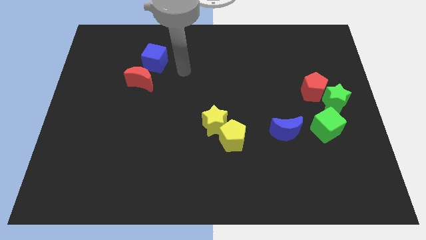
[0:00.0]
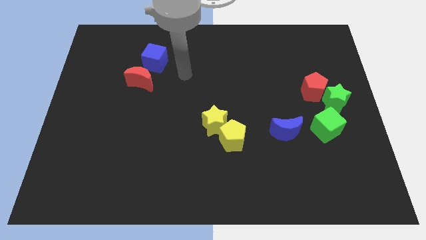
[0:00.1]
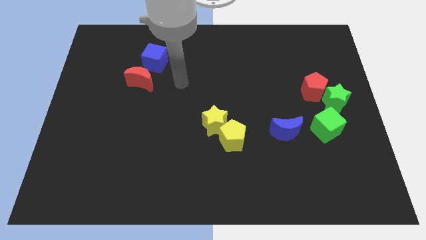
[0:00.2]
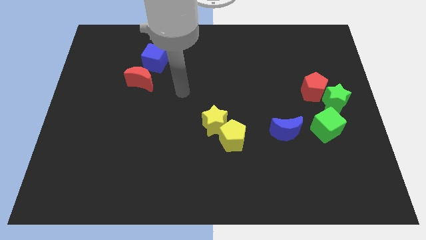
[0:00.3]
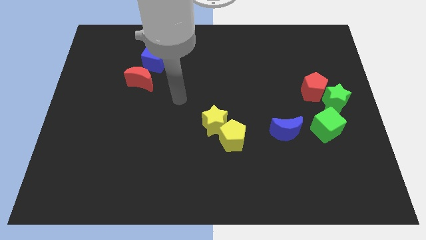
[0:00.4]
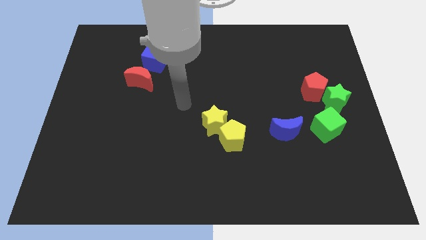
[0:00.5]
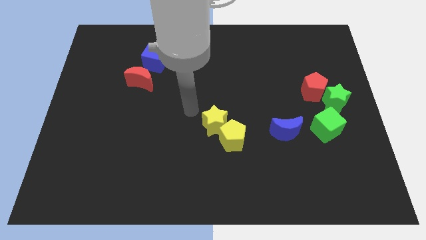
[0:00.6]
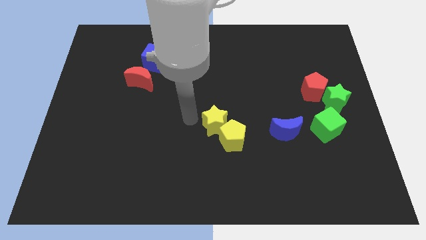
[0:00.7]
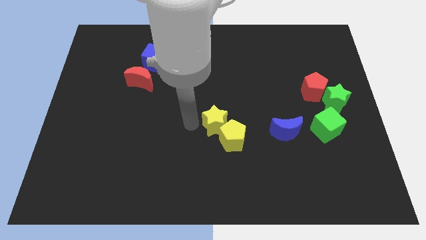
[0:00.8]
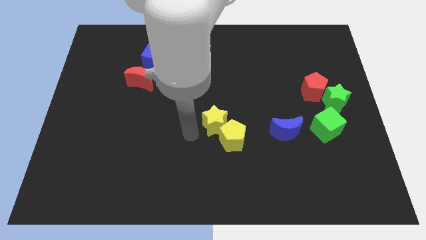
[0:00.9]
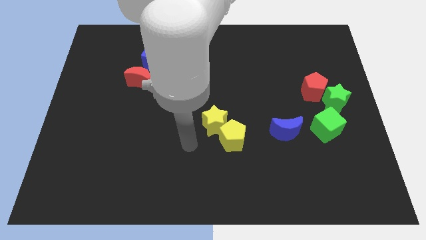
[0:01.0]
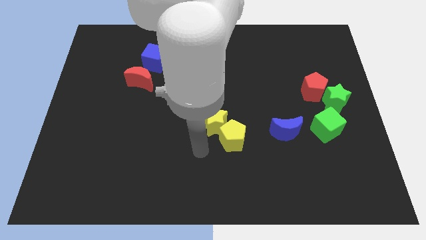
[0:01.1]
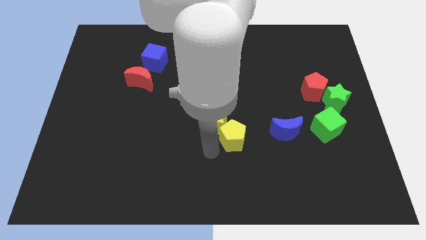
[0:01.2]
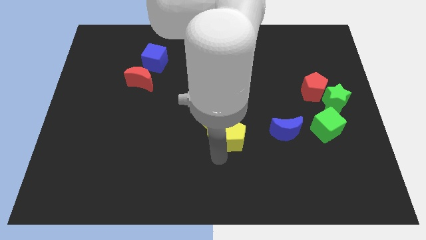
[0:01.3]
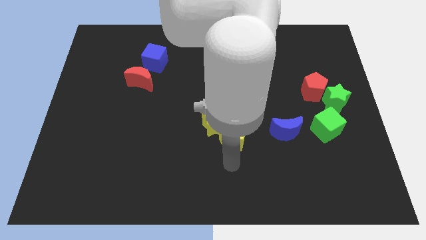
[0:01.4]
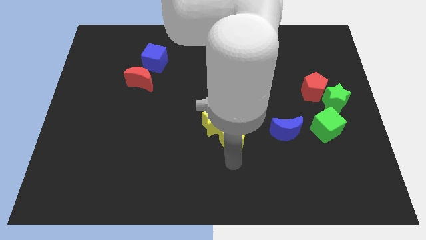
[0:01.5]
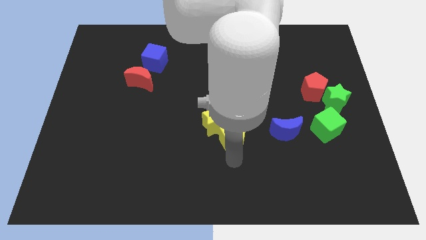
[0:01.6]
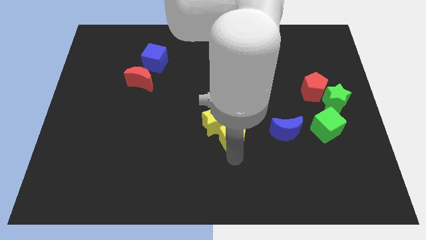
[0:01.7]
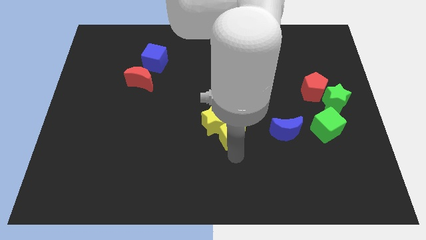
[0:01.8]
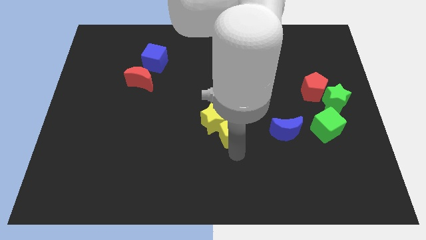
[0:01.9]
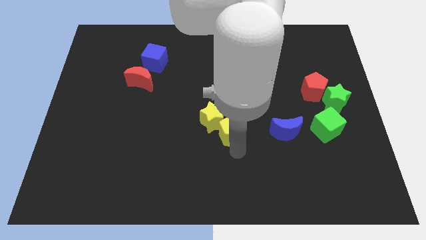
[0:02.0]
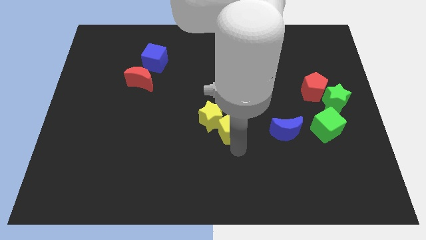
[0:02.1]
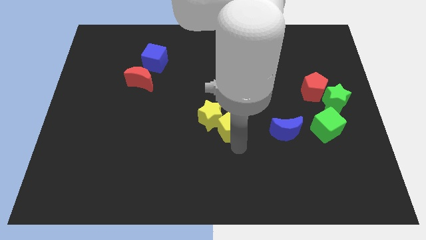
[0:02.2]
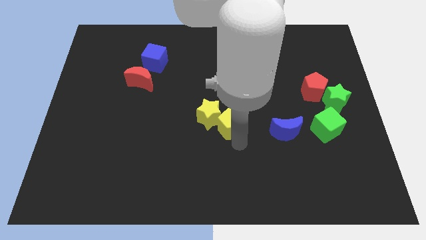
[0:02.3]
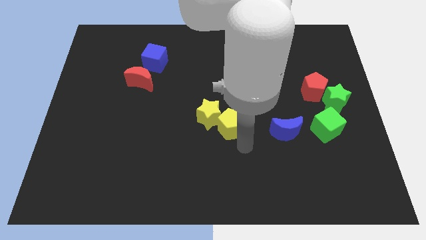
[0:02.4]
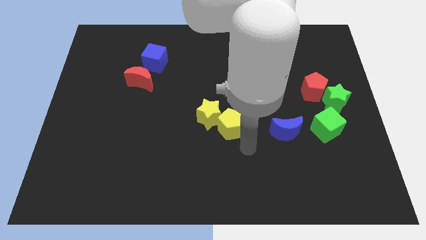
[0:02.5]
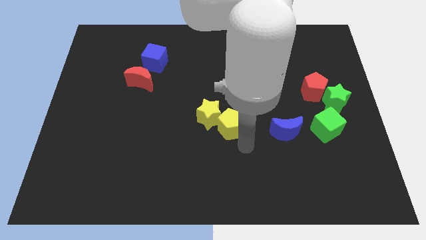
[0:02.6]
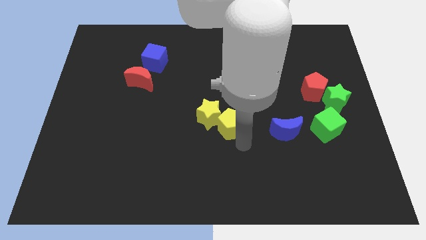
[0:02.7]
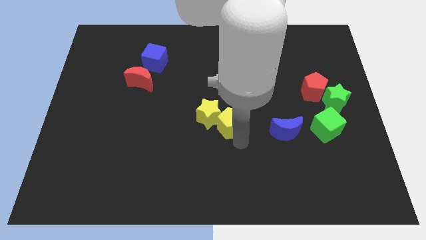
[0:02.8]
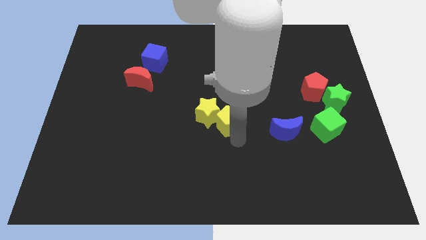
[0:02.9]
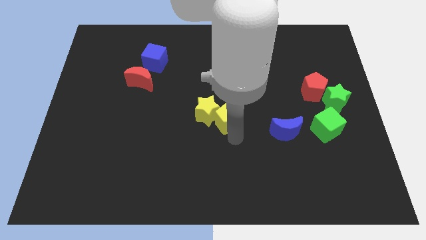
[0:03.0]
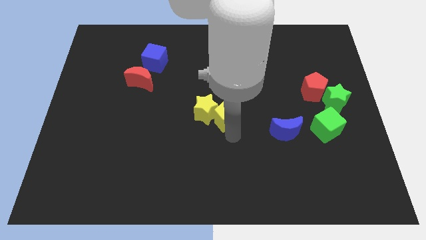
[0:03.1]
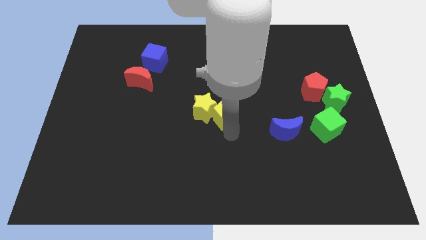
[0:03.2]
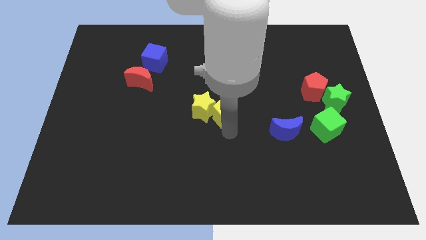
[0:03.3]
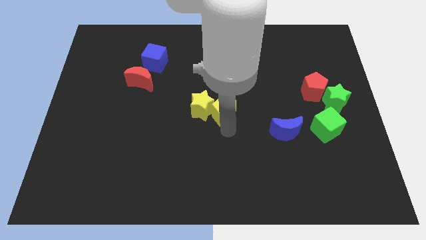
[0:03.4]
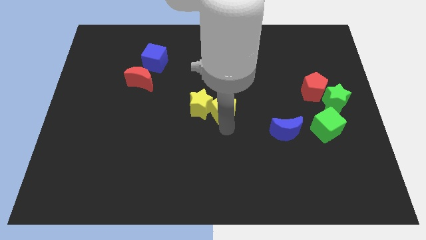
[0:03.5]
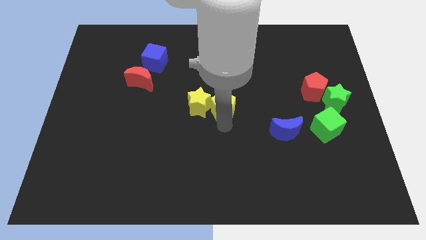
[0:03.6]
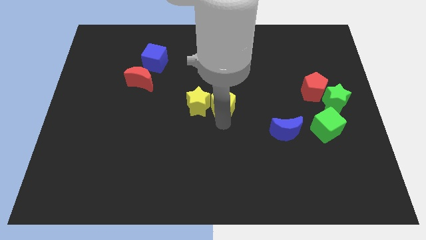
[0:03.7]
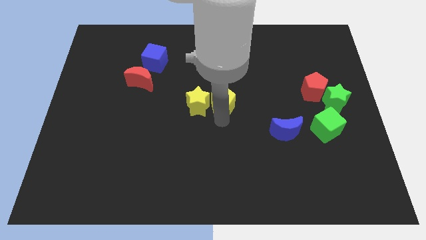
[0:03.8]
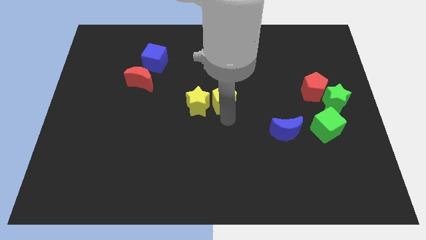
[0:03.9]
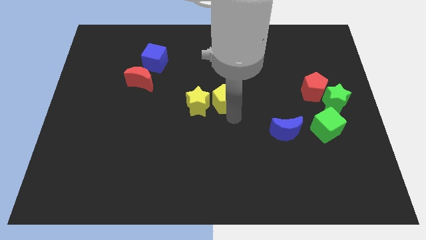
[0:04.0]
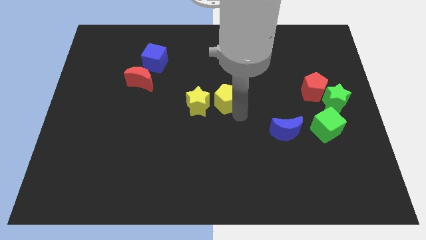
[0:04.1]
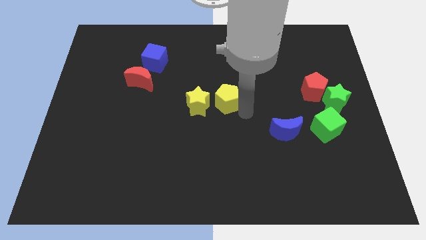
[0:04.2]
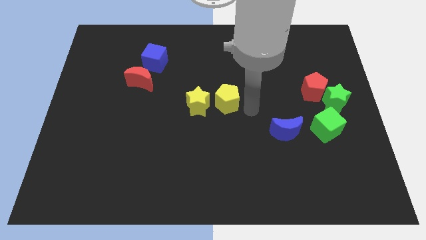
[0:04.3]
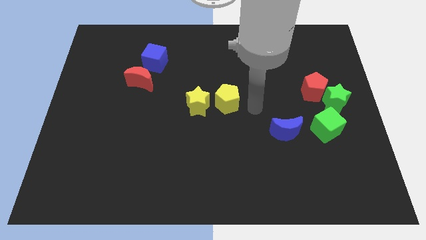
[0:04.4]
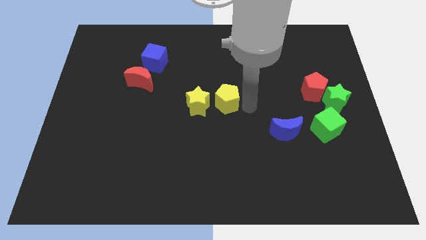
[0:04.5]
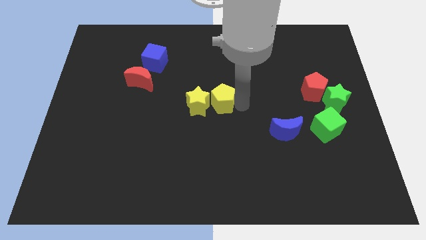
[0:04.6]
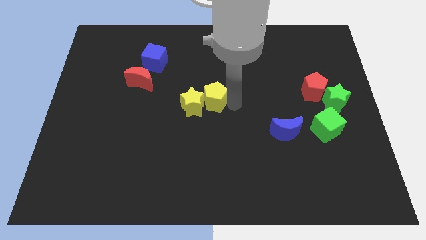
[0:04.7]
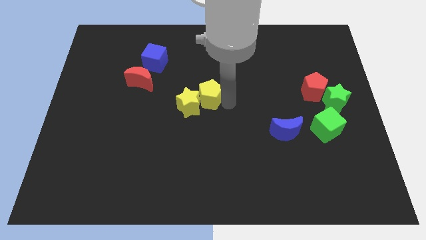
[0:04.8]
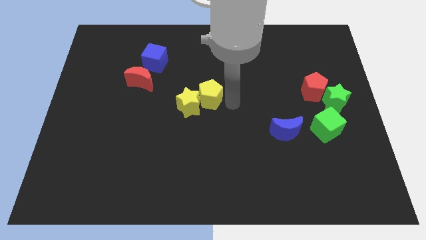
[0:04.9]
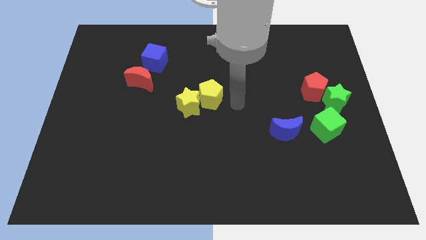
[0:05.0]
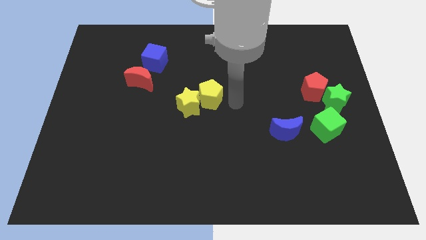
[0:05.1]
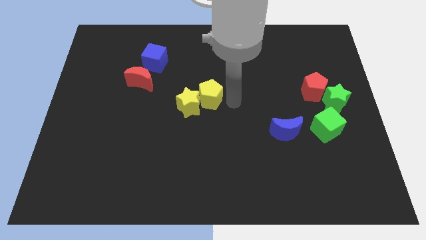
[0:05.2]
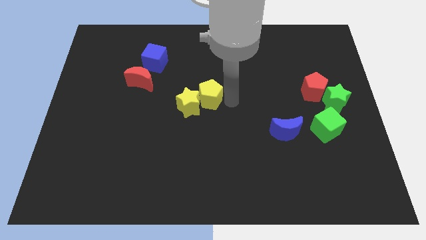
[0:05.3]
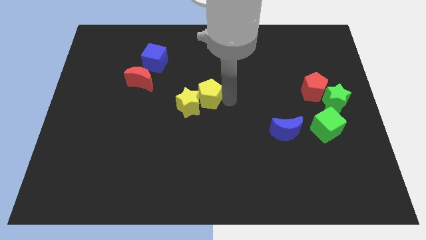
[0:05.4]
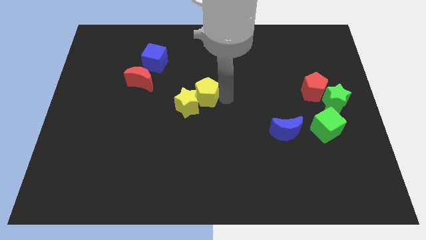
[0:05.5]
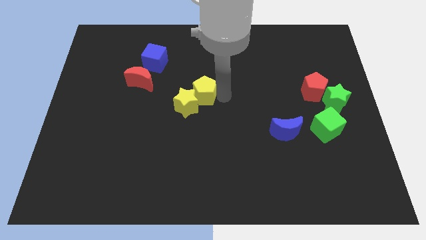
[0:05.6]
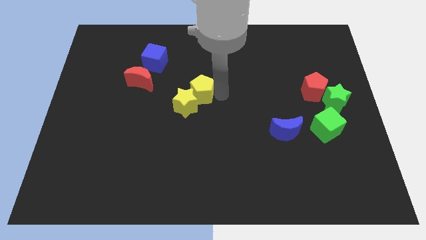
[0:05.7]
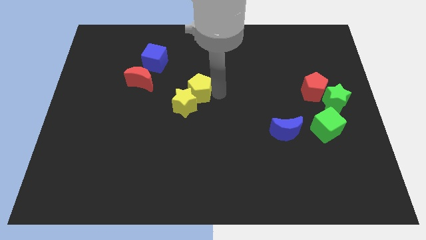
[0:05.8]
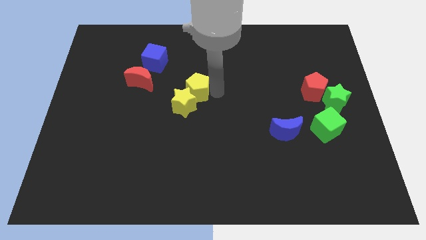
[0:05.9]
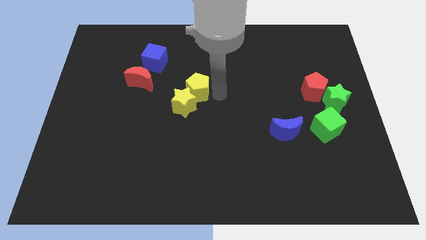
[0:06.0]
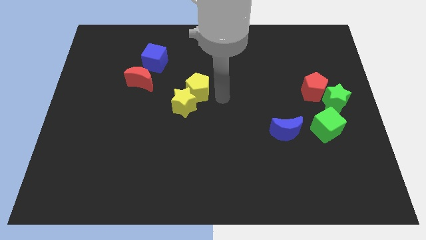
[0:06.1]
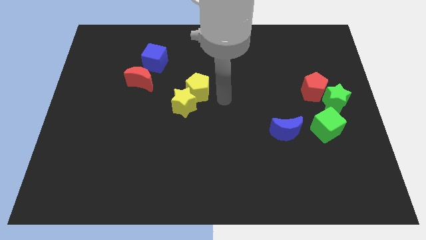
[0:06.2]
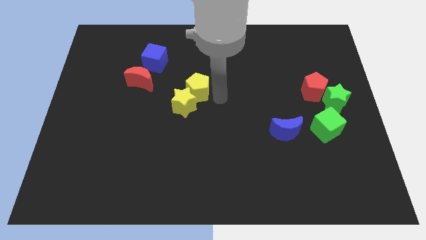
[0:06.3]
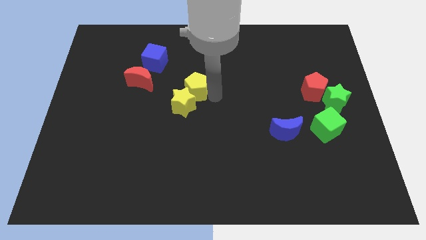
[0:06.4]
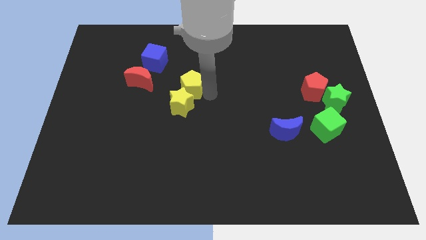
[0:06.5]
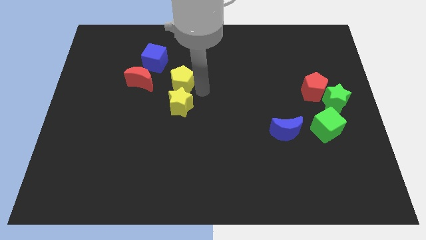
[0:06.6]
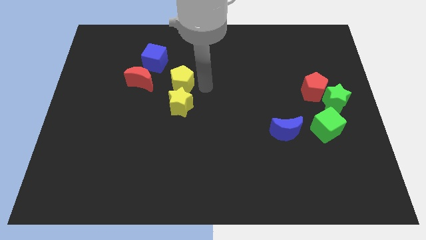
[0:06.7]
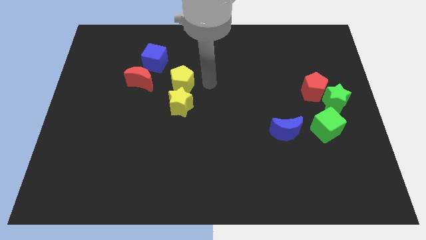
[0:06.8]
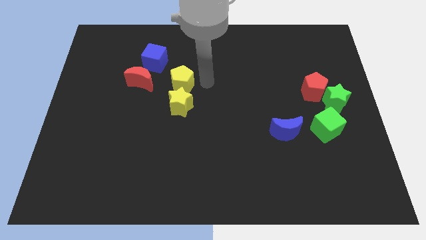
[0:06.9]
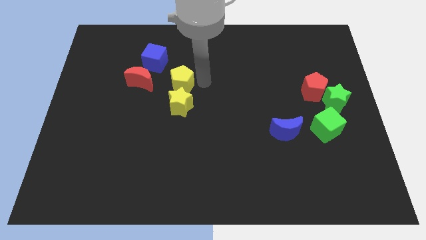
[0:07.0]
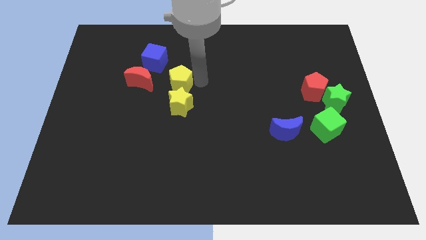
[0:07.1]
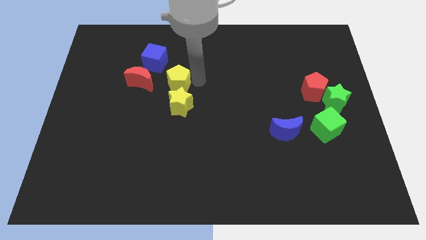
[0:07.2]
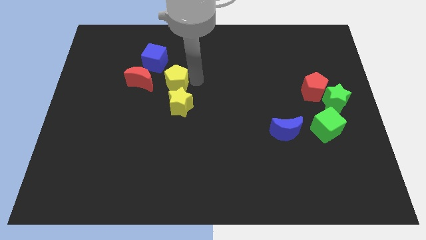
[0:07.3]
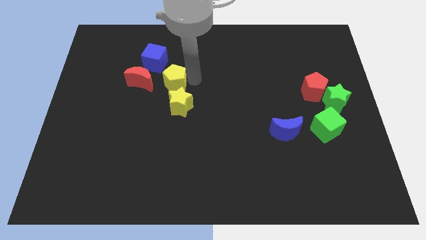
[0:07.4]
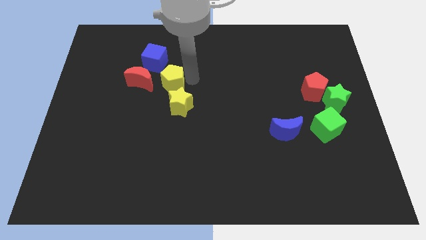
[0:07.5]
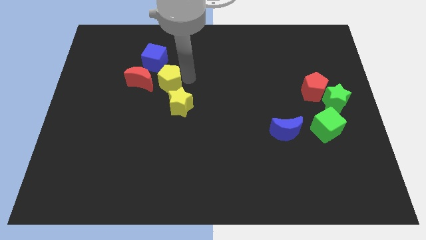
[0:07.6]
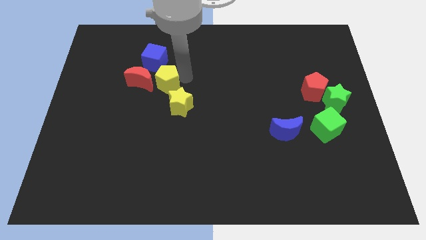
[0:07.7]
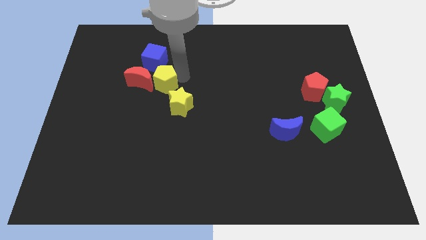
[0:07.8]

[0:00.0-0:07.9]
move the yellow pentagon towards the red moon
